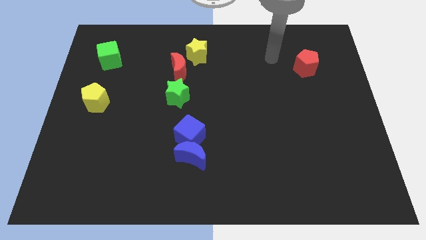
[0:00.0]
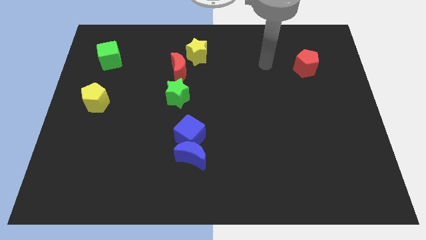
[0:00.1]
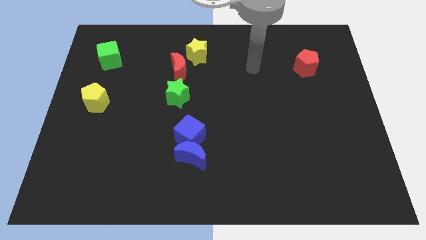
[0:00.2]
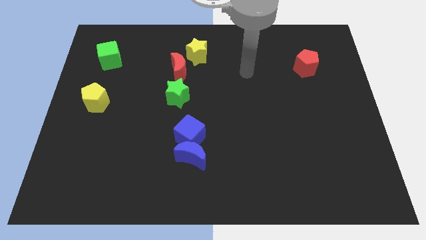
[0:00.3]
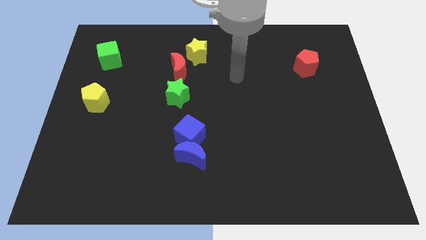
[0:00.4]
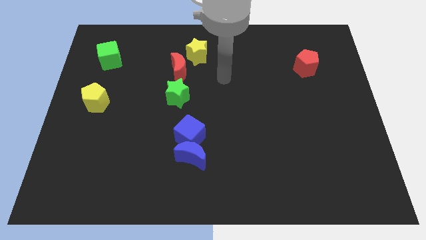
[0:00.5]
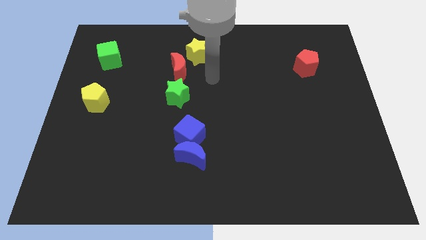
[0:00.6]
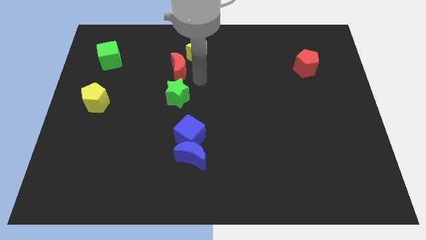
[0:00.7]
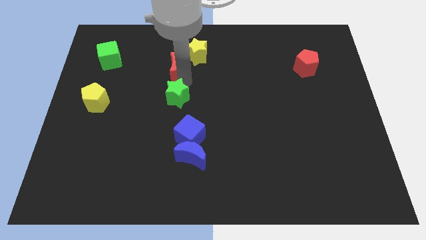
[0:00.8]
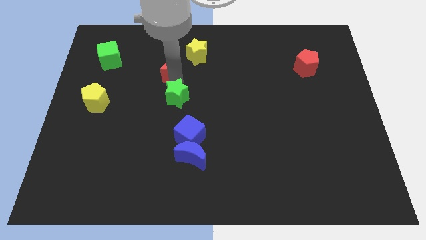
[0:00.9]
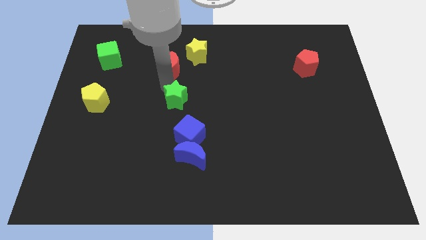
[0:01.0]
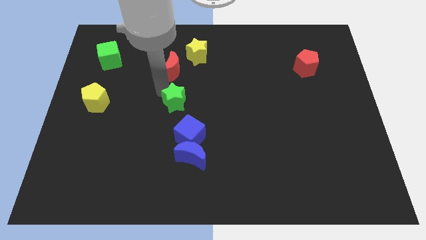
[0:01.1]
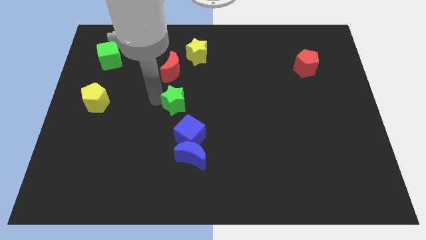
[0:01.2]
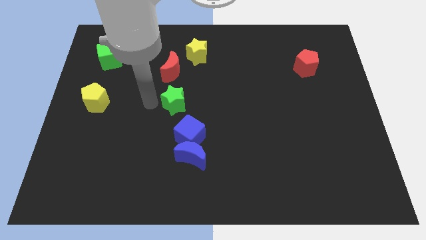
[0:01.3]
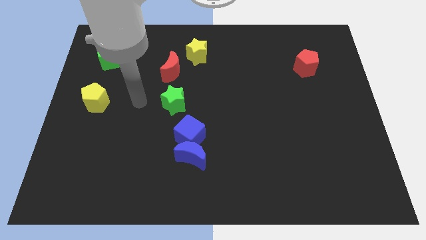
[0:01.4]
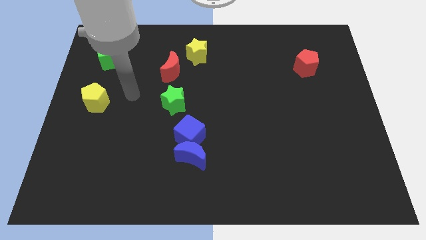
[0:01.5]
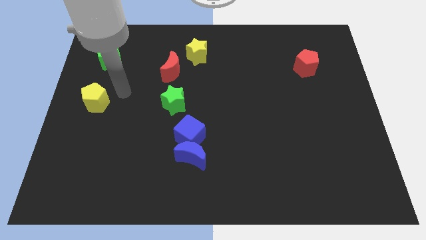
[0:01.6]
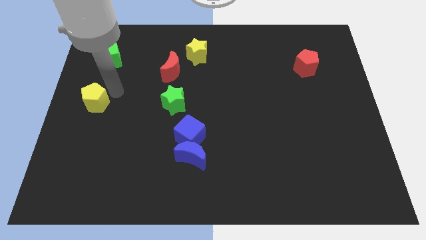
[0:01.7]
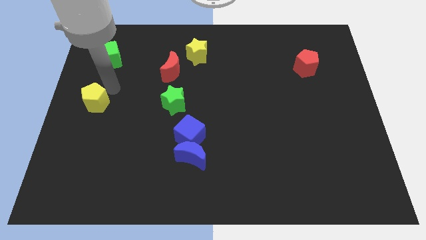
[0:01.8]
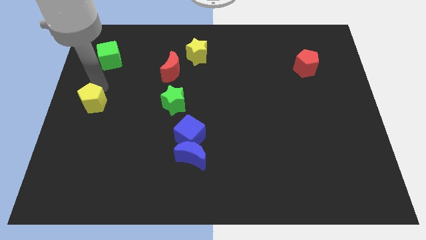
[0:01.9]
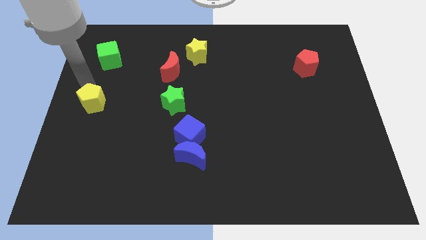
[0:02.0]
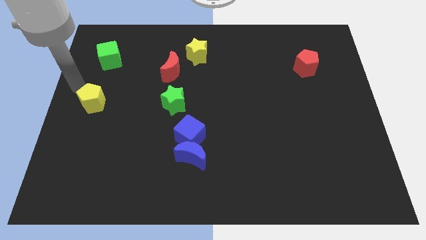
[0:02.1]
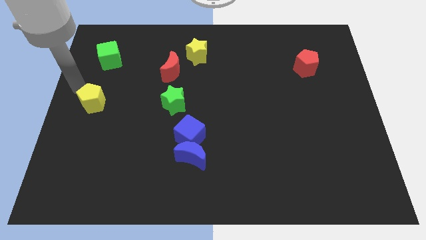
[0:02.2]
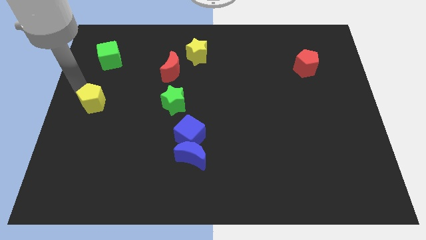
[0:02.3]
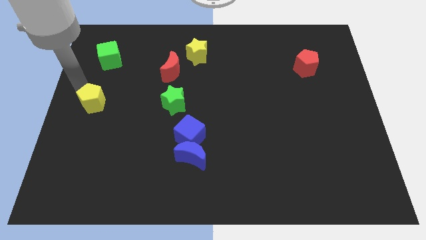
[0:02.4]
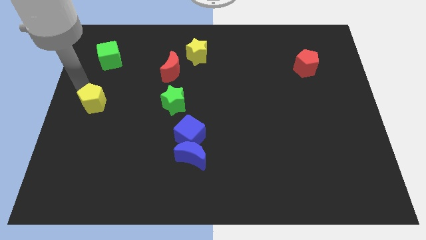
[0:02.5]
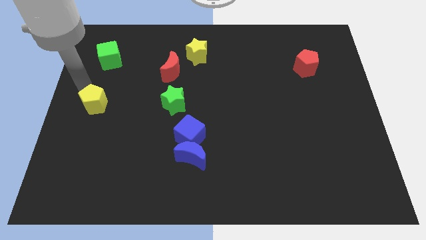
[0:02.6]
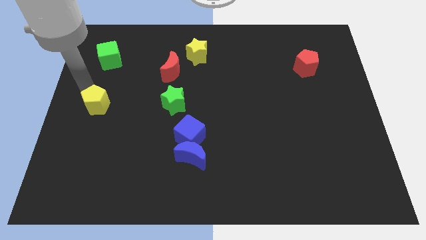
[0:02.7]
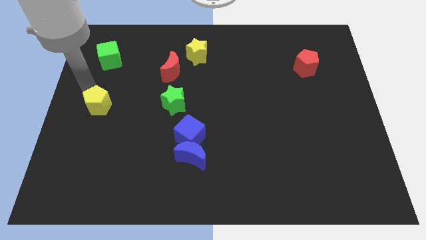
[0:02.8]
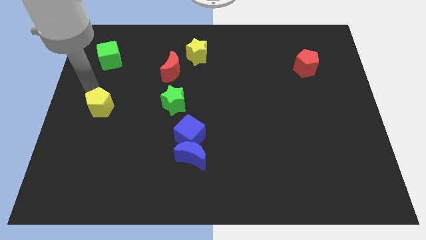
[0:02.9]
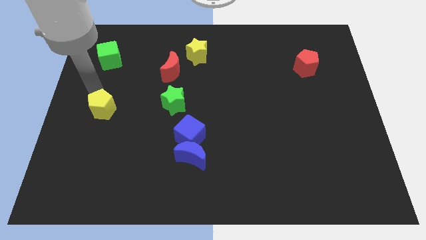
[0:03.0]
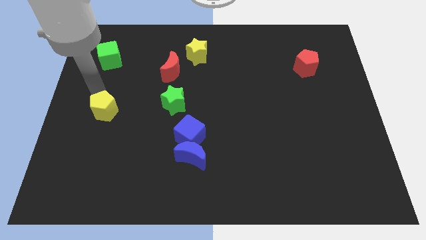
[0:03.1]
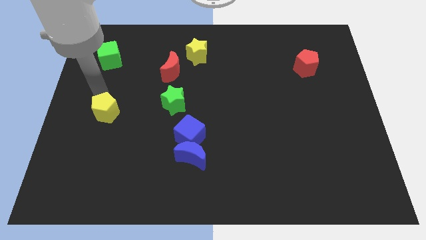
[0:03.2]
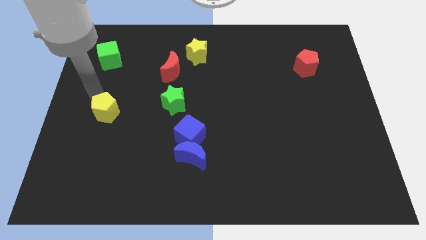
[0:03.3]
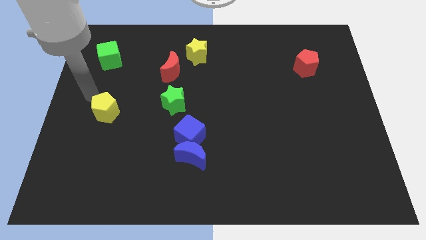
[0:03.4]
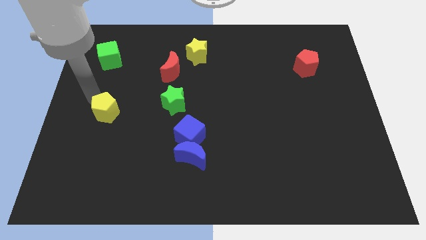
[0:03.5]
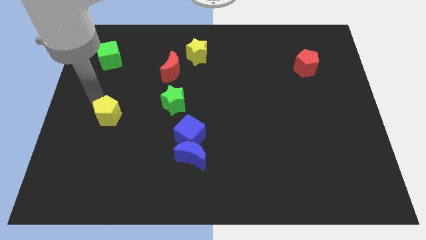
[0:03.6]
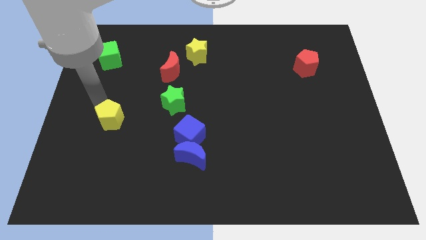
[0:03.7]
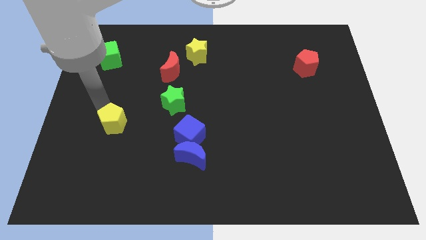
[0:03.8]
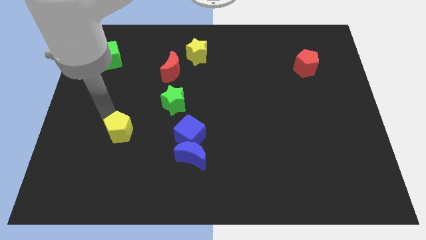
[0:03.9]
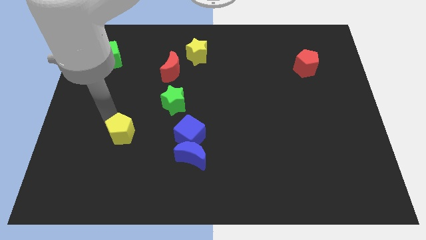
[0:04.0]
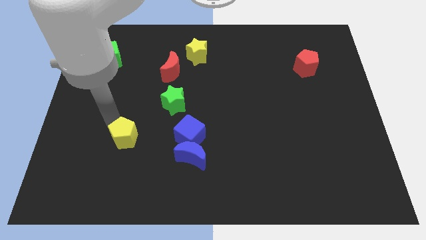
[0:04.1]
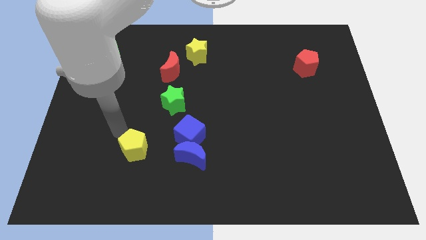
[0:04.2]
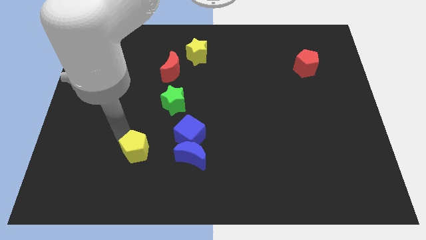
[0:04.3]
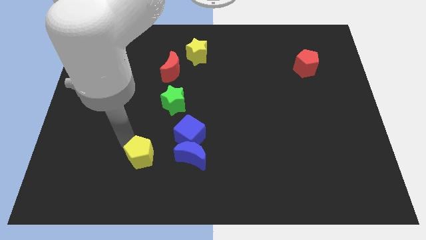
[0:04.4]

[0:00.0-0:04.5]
put the yellow pentagon diagonally down and to the left of the blue cube

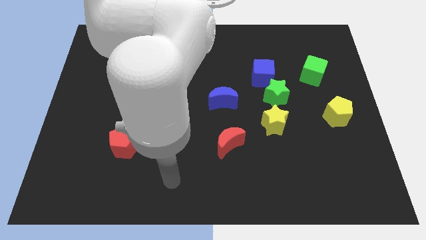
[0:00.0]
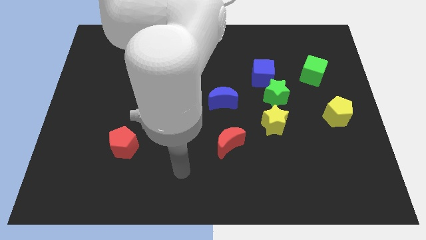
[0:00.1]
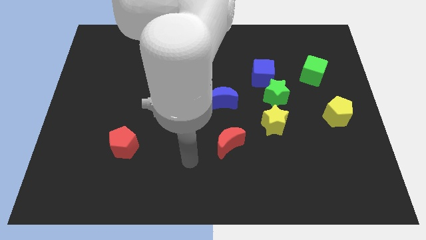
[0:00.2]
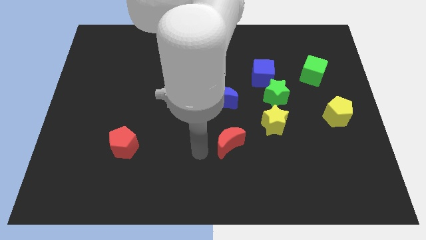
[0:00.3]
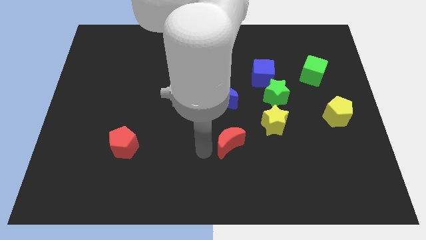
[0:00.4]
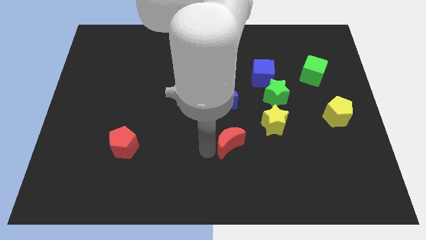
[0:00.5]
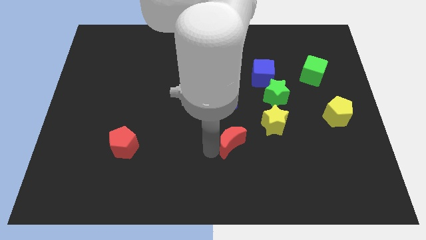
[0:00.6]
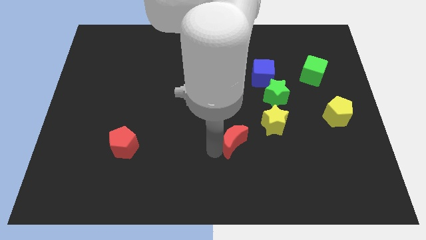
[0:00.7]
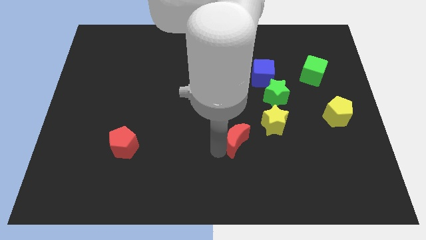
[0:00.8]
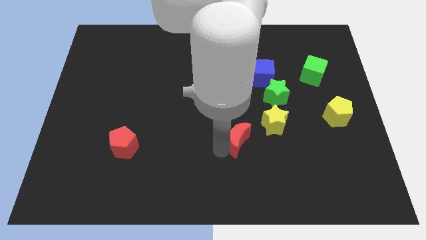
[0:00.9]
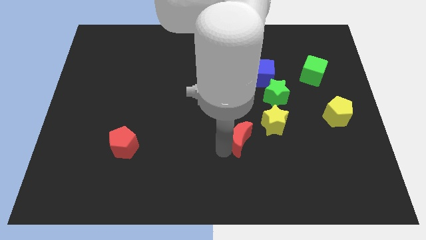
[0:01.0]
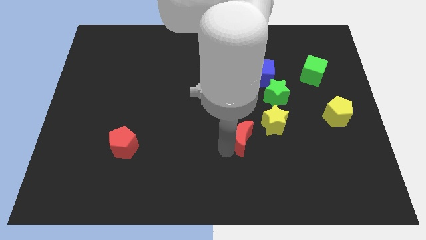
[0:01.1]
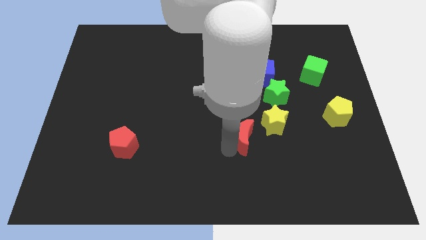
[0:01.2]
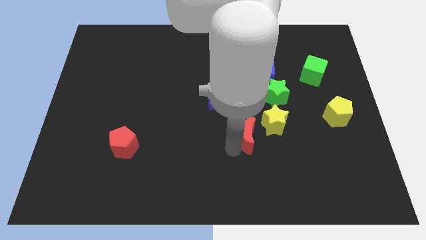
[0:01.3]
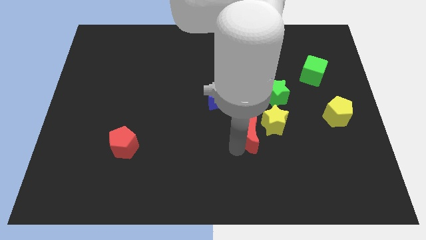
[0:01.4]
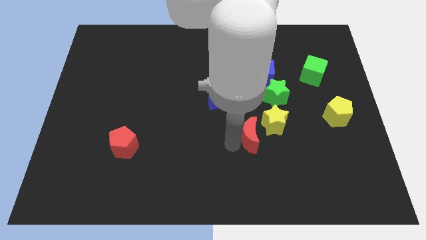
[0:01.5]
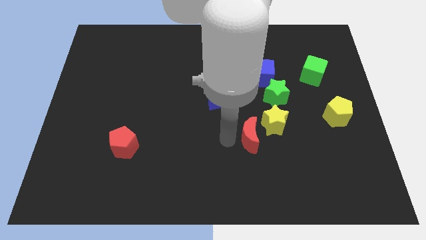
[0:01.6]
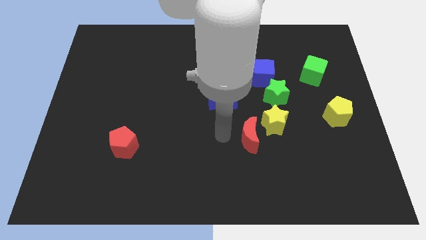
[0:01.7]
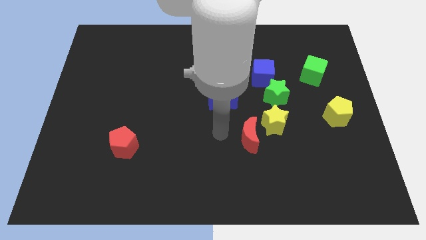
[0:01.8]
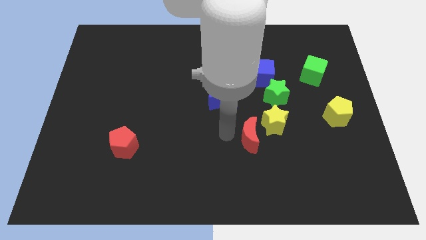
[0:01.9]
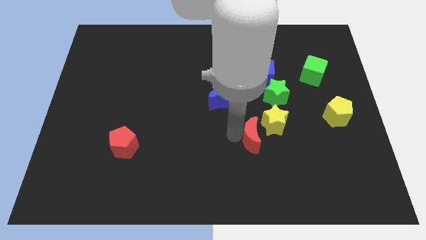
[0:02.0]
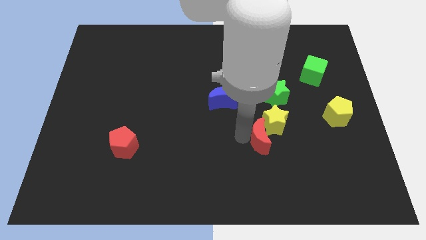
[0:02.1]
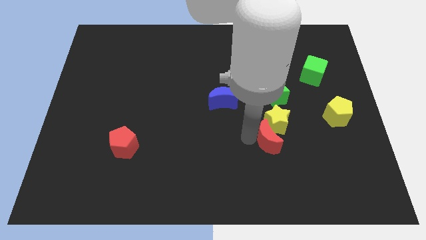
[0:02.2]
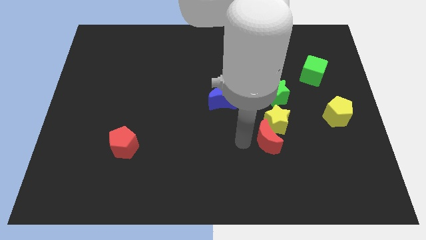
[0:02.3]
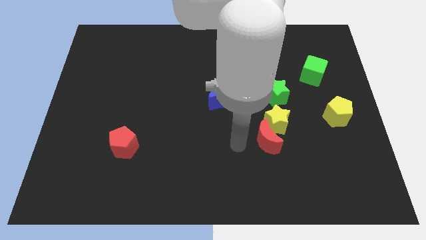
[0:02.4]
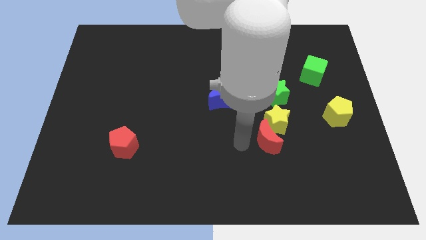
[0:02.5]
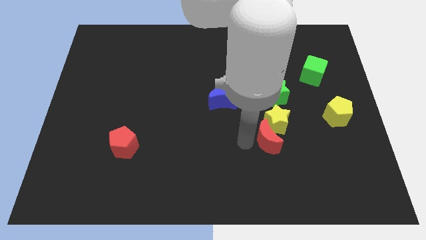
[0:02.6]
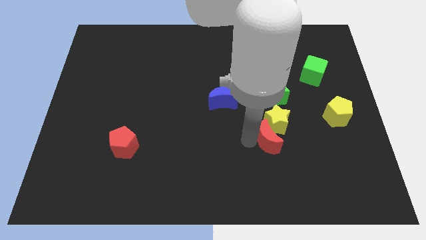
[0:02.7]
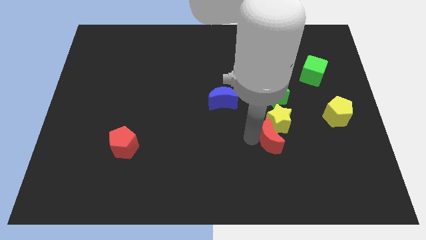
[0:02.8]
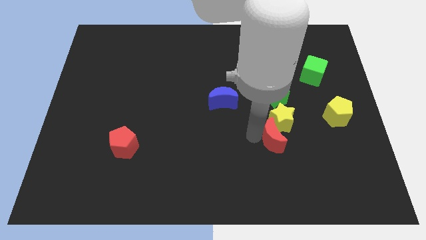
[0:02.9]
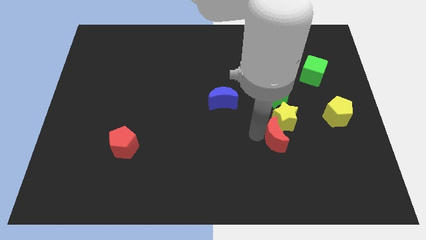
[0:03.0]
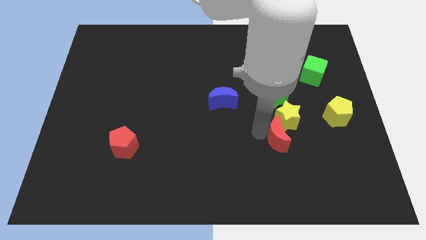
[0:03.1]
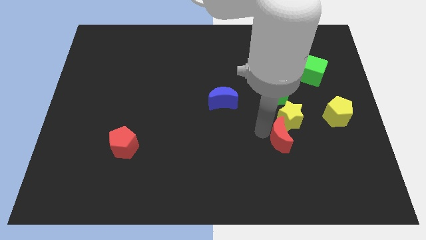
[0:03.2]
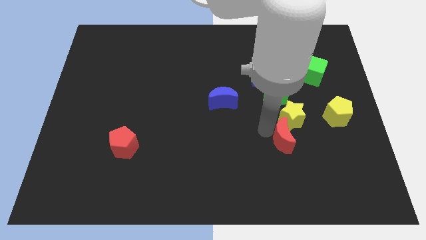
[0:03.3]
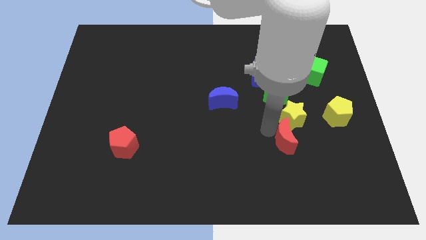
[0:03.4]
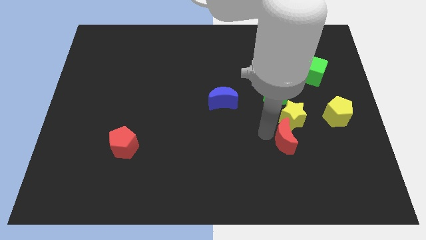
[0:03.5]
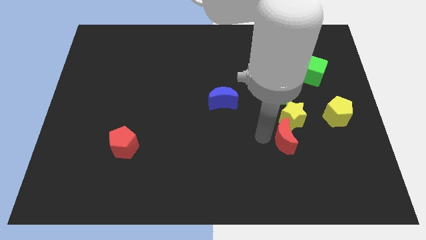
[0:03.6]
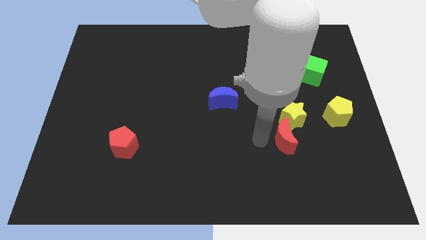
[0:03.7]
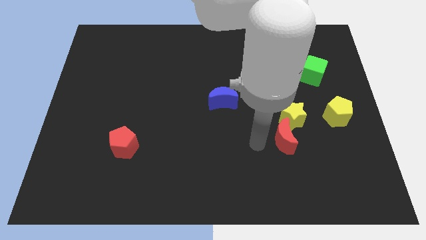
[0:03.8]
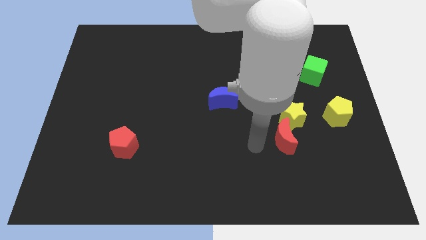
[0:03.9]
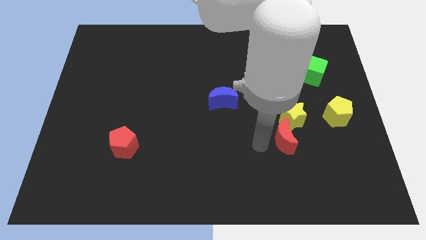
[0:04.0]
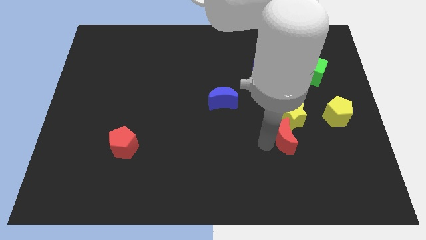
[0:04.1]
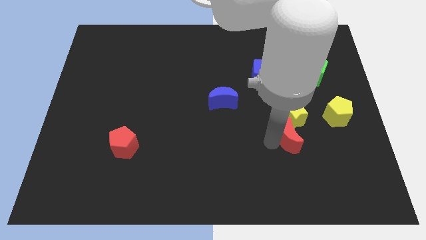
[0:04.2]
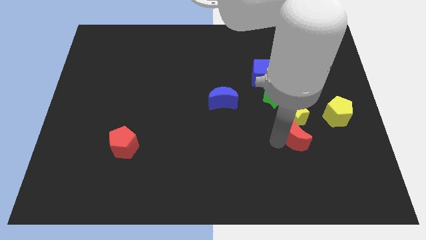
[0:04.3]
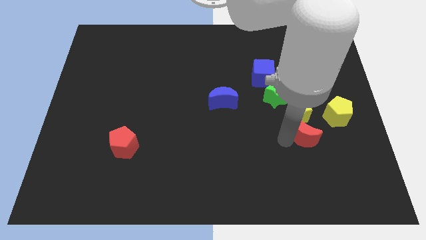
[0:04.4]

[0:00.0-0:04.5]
push the red moon to the bottom left of the yellow pentagon
